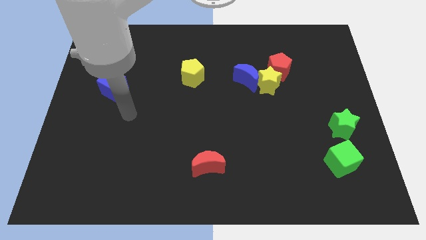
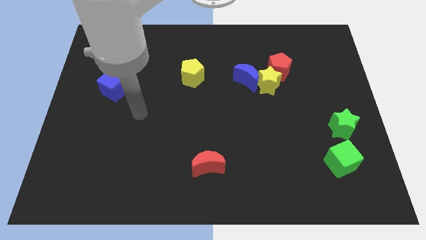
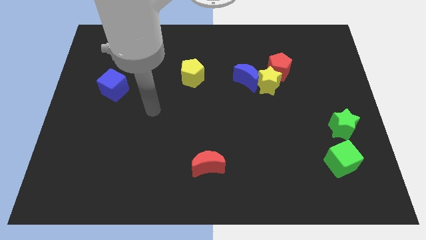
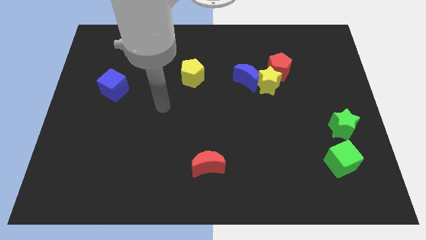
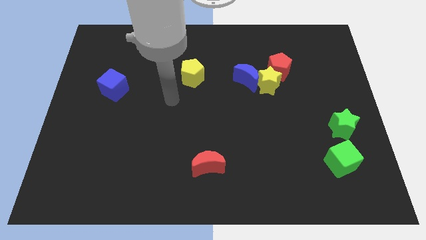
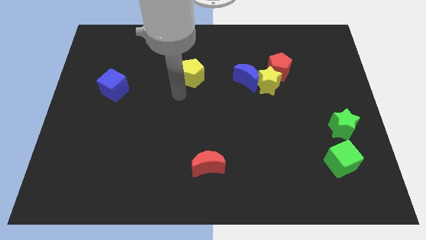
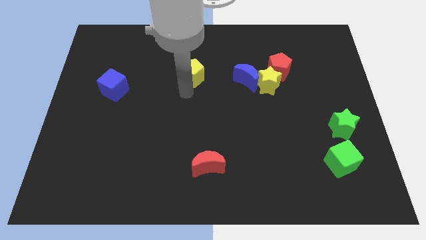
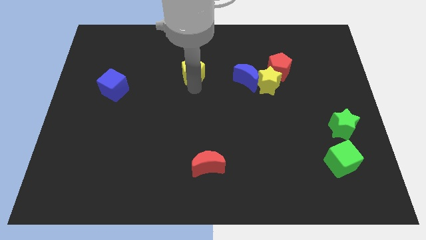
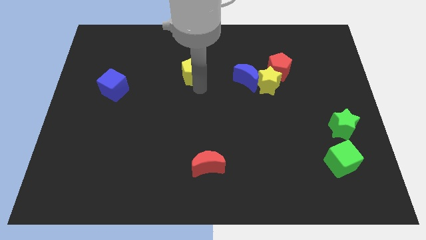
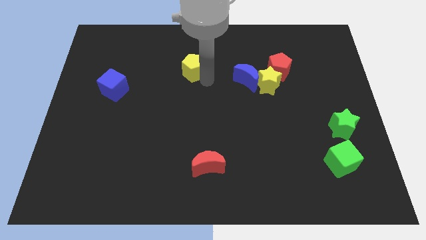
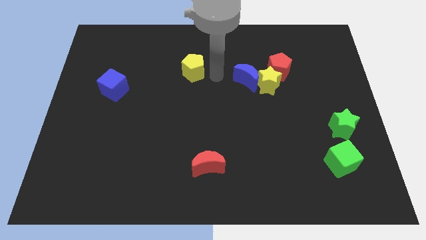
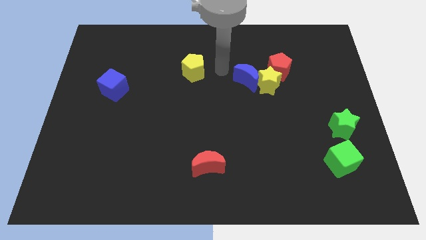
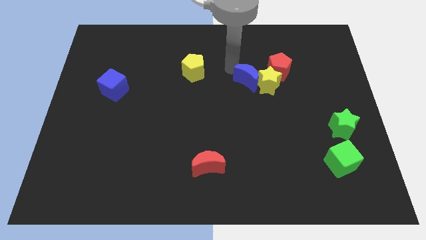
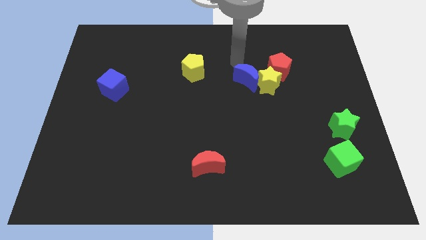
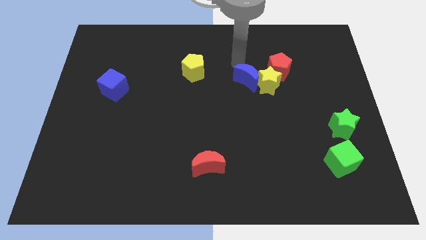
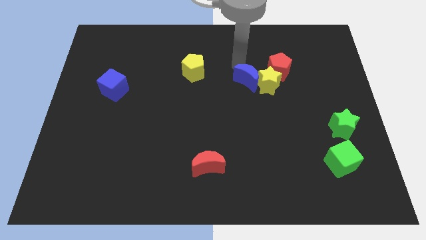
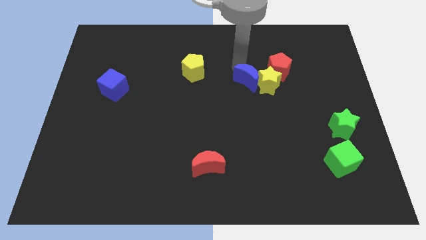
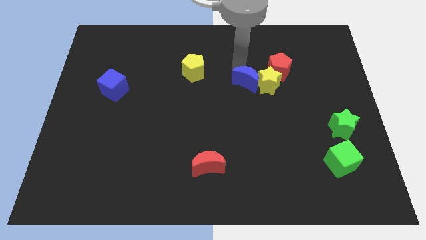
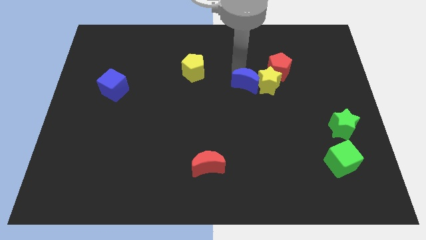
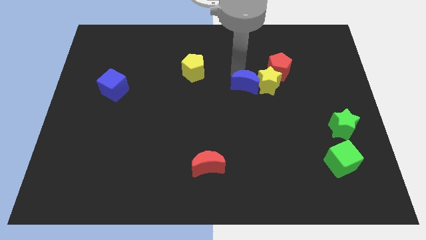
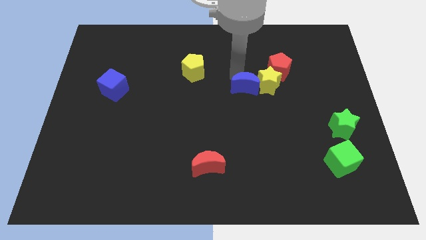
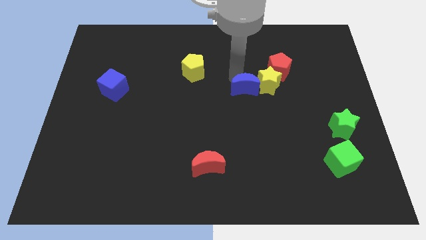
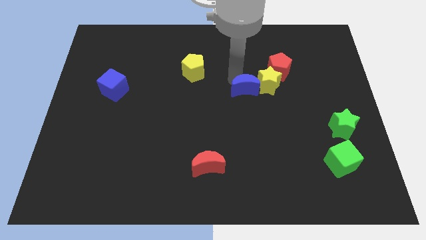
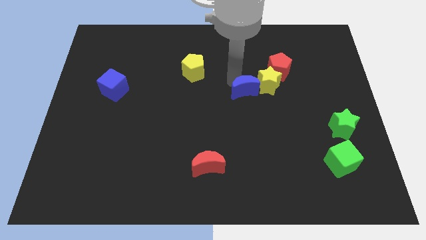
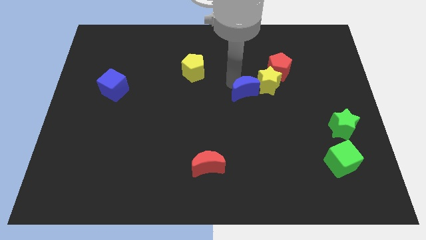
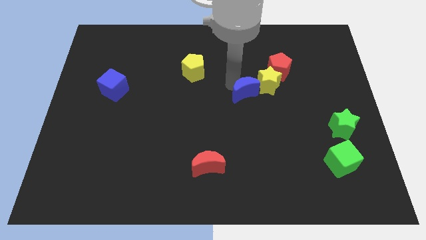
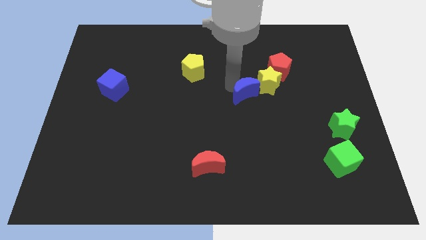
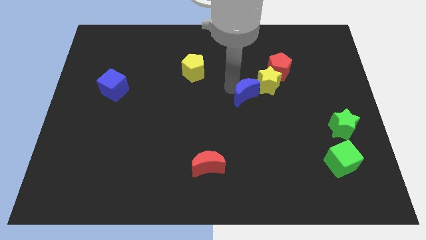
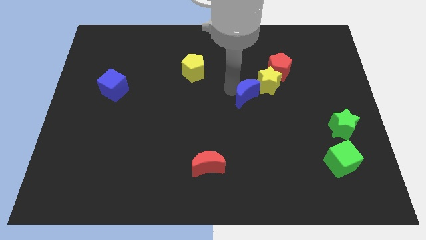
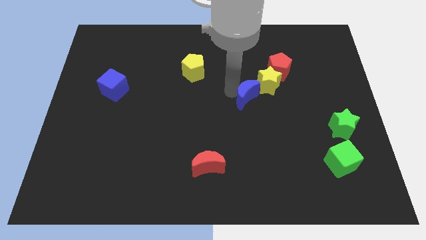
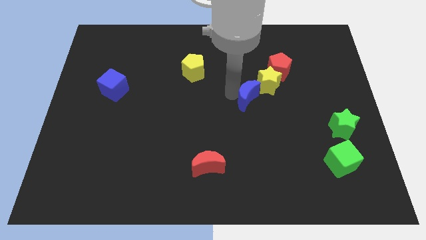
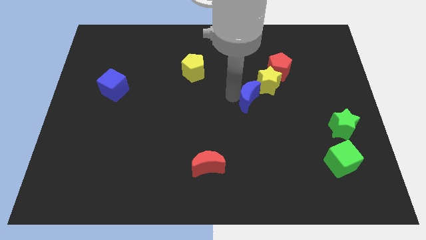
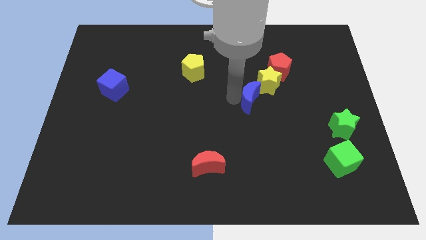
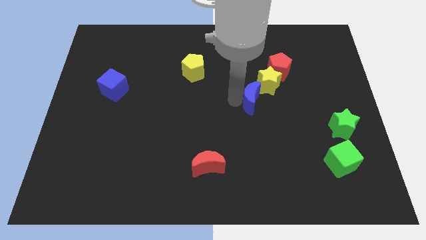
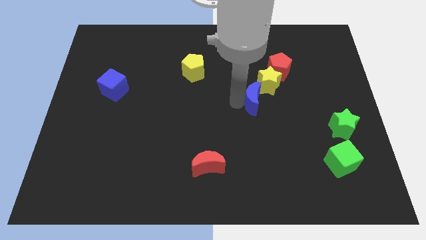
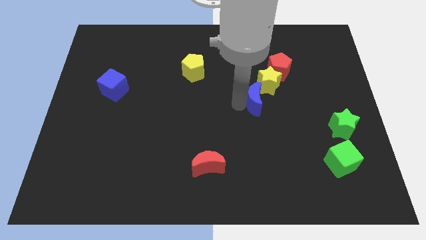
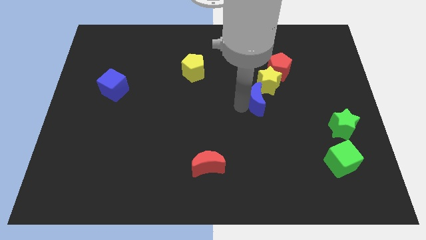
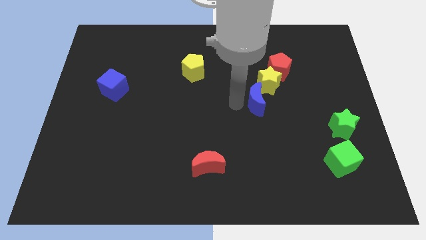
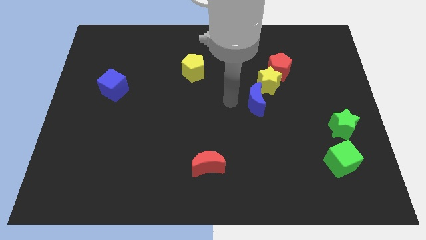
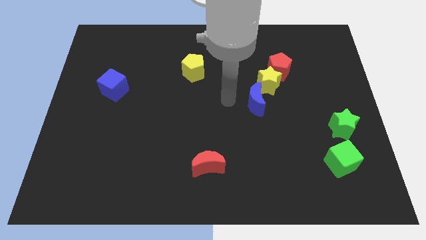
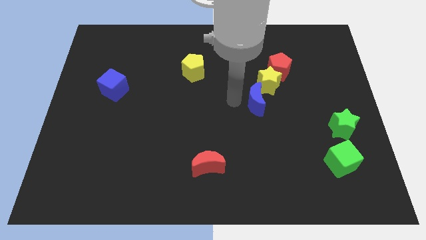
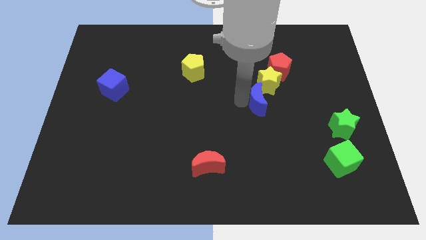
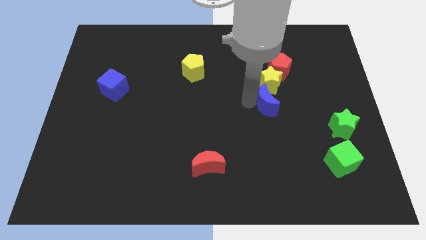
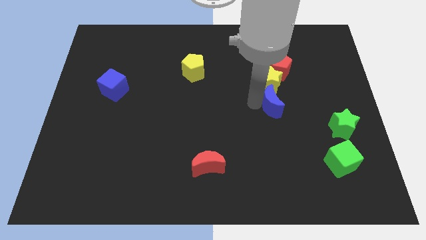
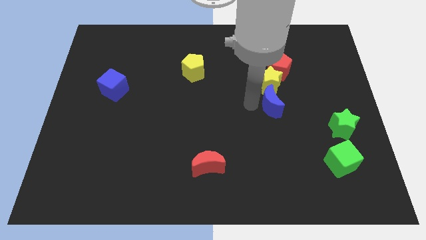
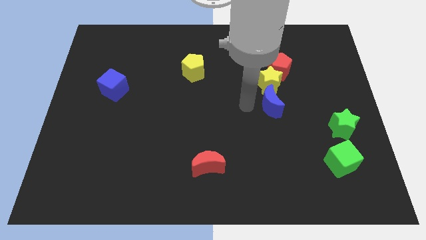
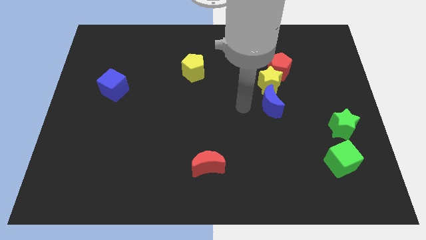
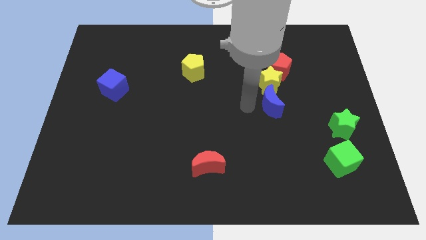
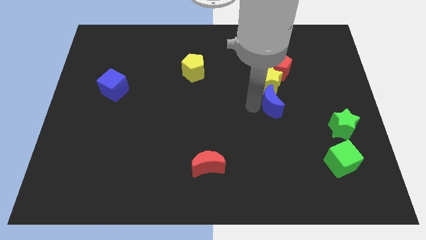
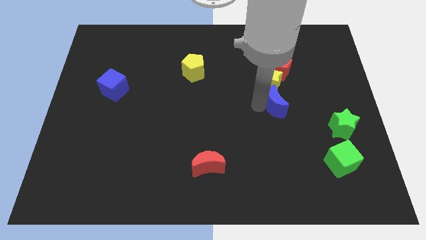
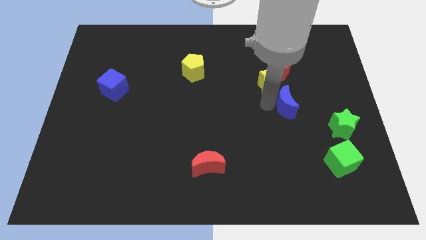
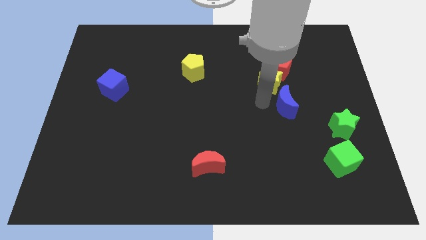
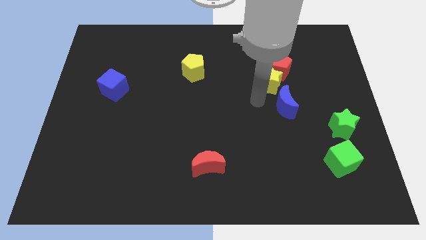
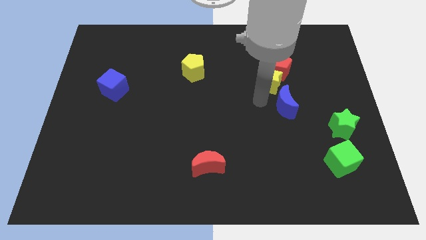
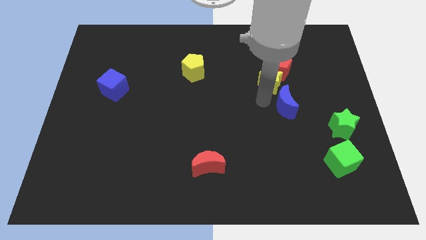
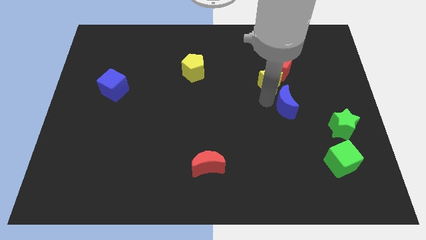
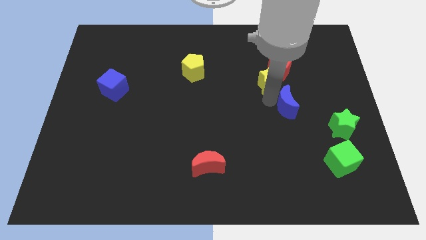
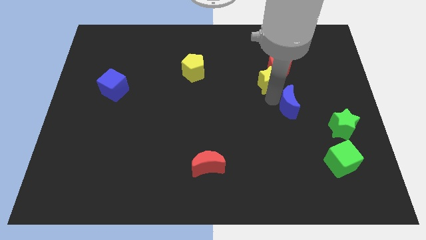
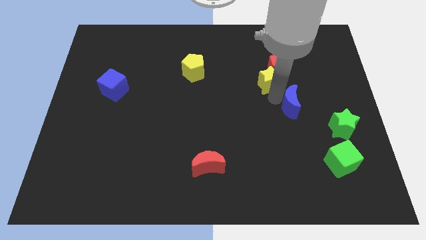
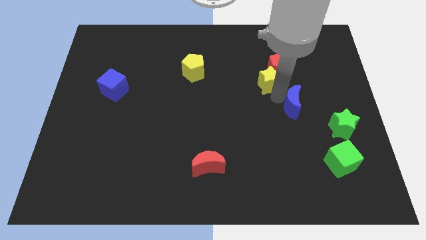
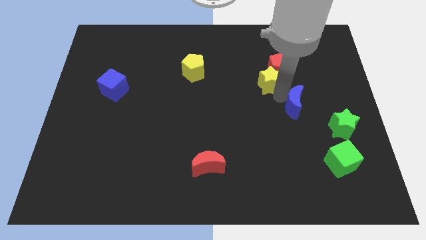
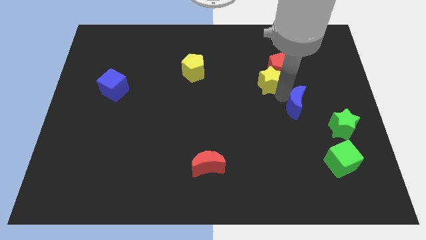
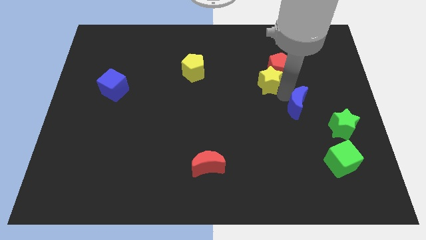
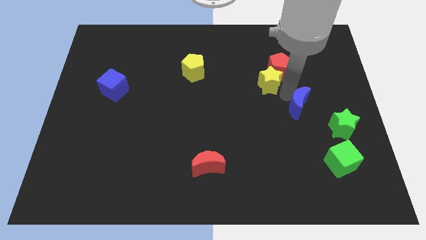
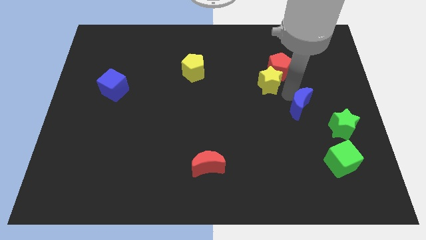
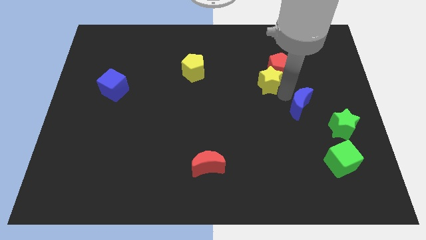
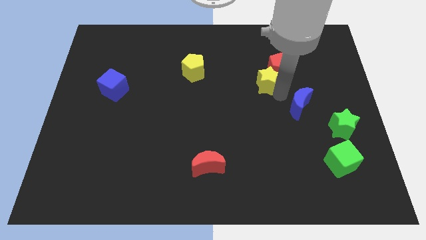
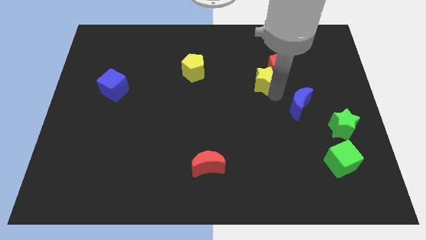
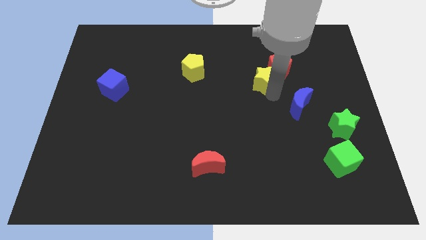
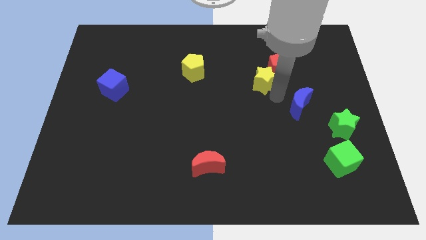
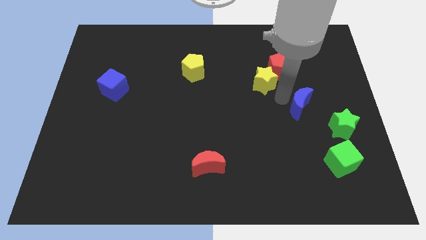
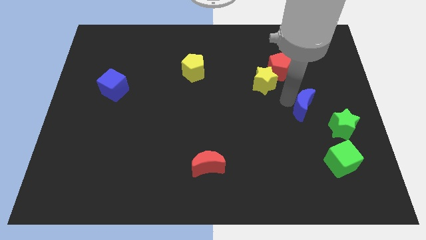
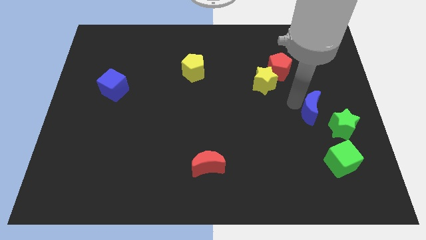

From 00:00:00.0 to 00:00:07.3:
move the blue moon to the top of the green cube

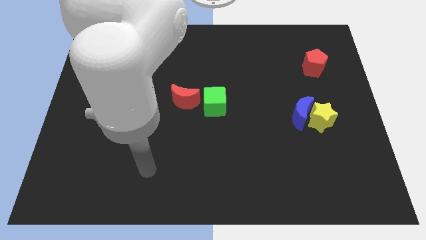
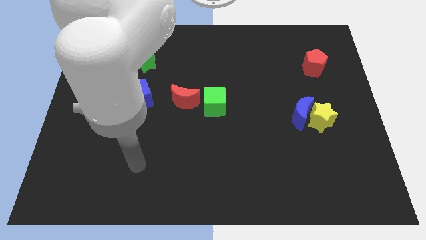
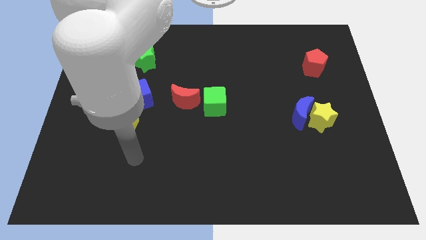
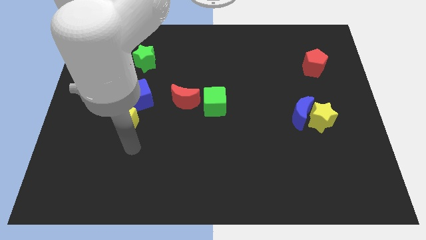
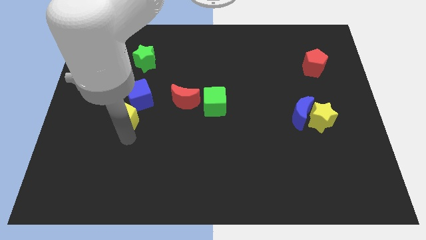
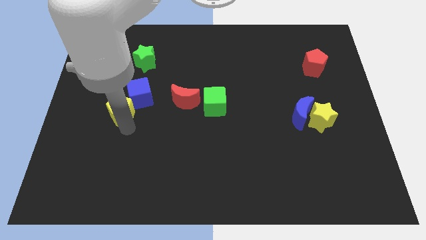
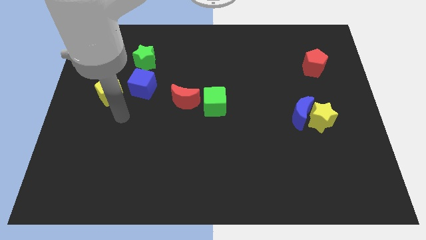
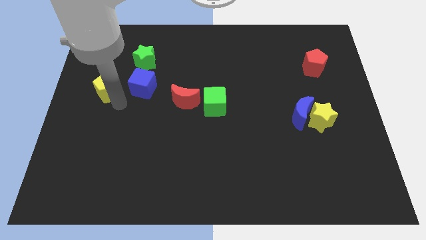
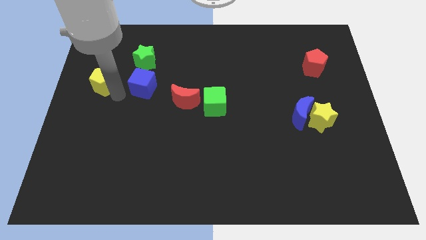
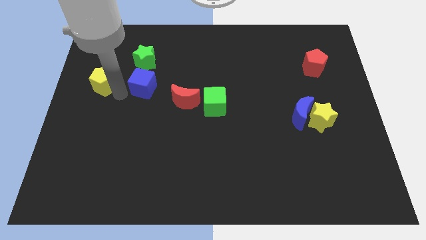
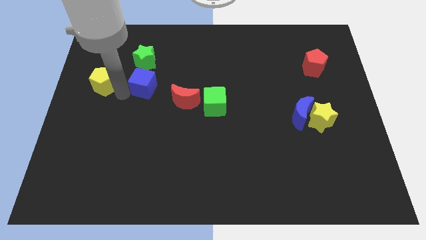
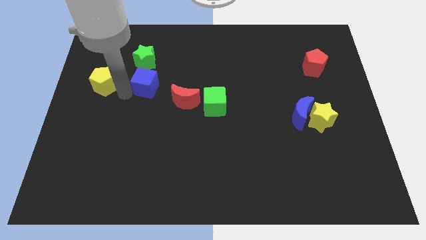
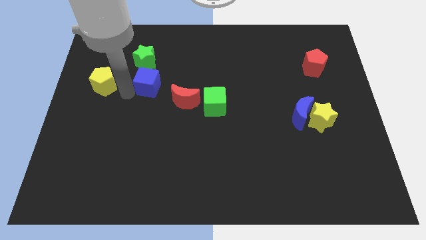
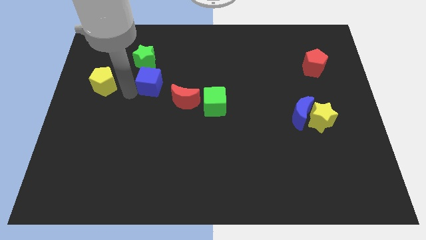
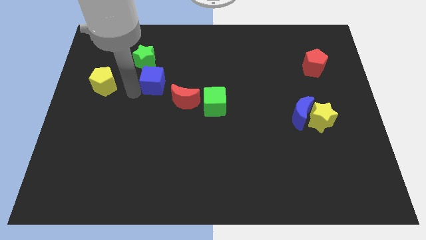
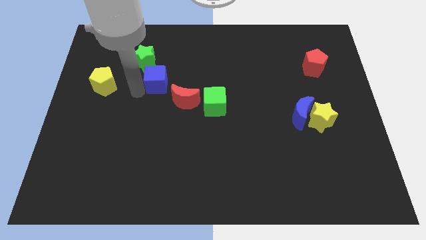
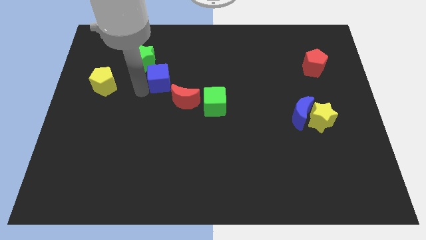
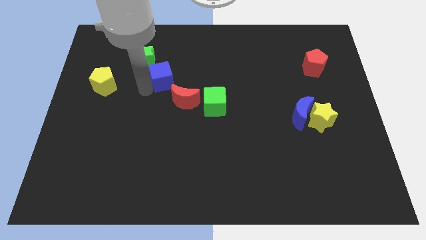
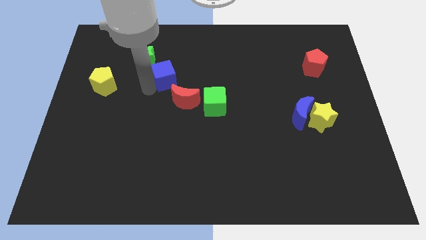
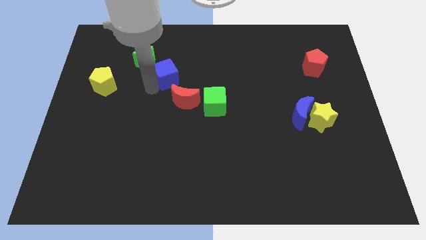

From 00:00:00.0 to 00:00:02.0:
move the blue cube above the red moon
